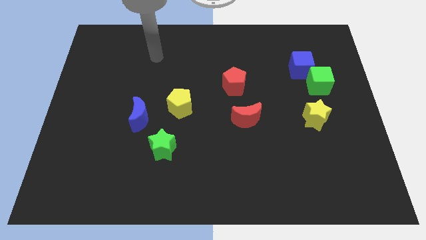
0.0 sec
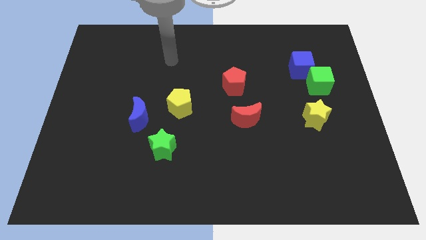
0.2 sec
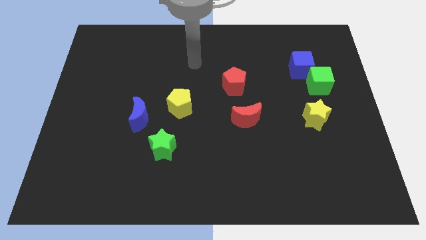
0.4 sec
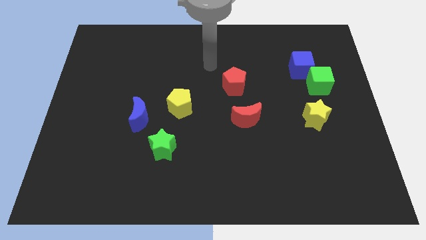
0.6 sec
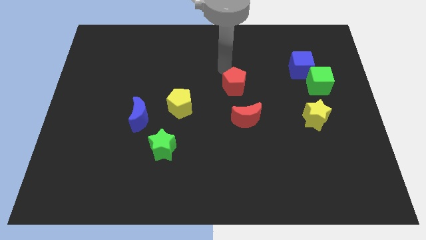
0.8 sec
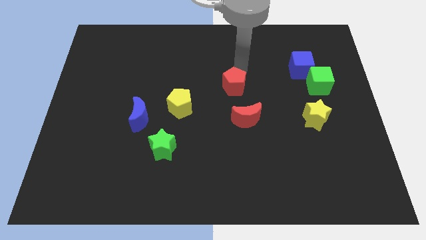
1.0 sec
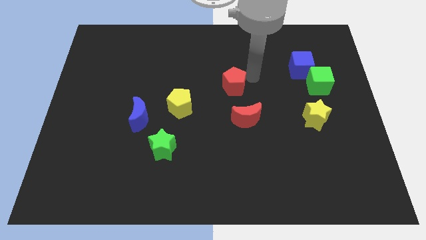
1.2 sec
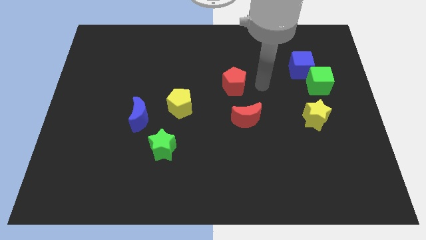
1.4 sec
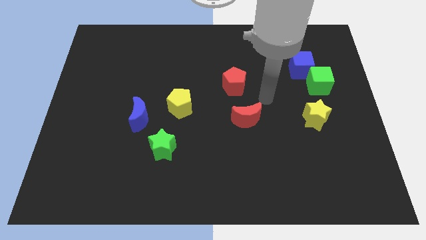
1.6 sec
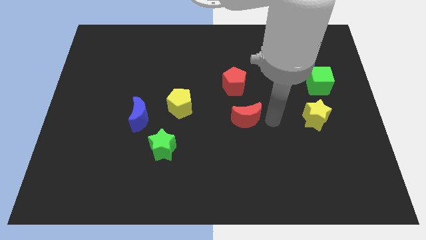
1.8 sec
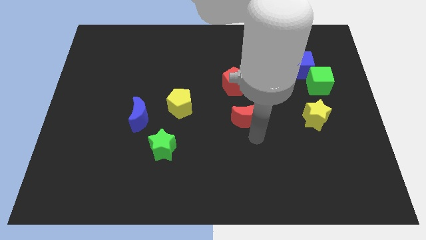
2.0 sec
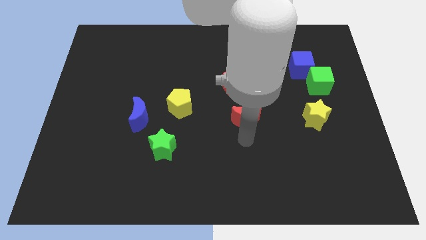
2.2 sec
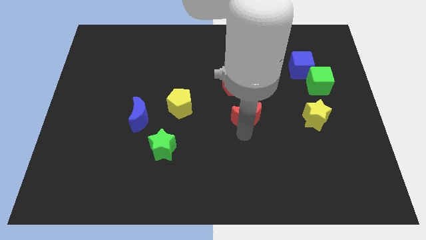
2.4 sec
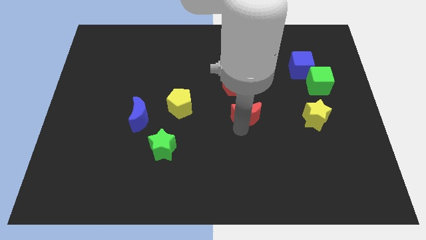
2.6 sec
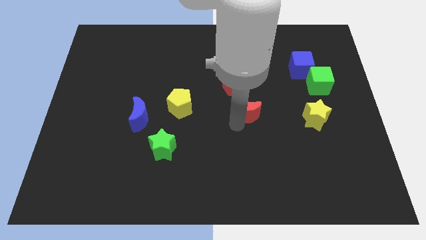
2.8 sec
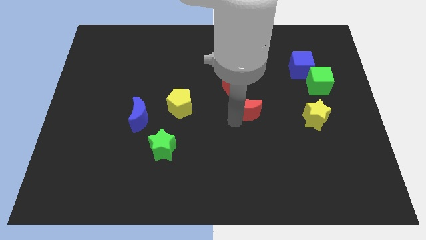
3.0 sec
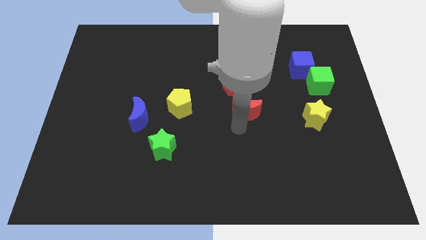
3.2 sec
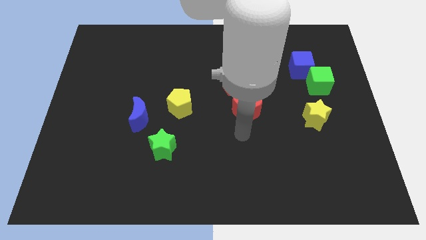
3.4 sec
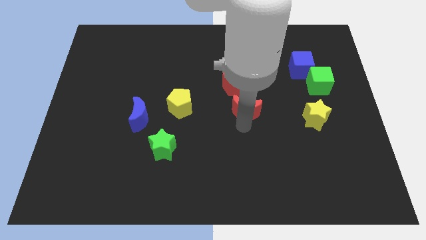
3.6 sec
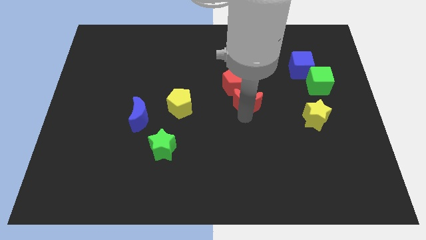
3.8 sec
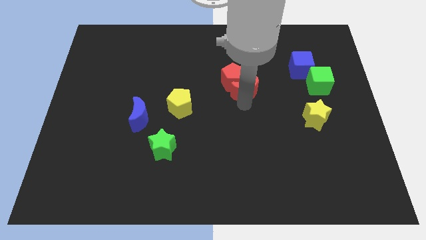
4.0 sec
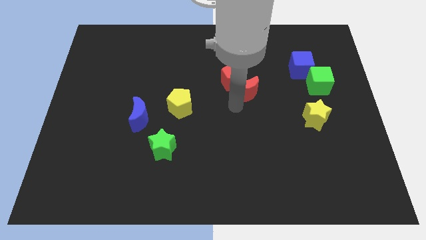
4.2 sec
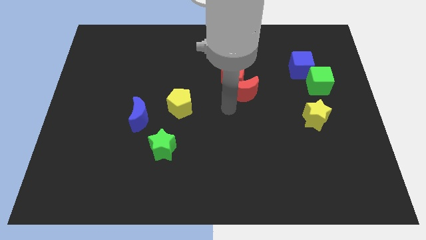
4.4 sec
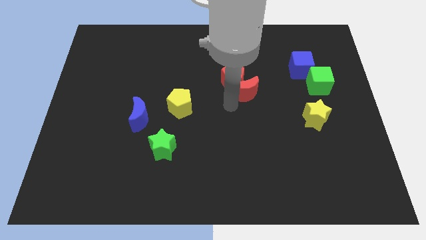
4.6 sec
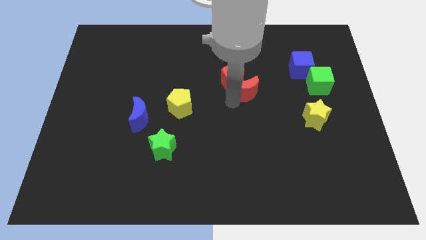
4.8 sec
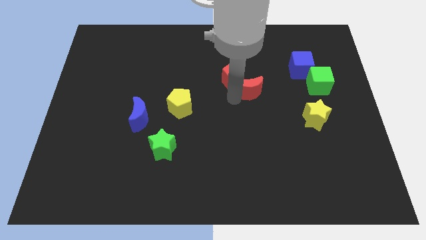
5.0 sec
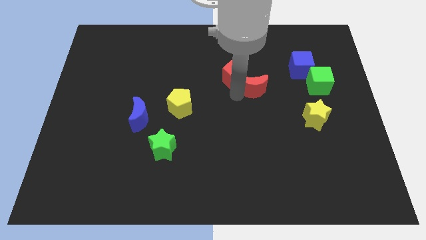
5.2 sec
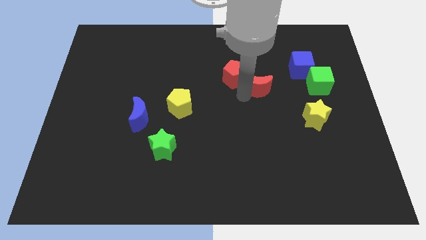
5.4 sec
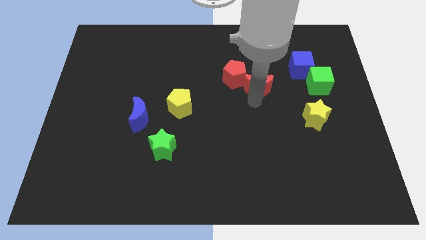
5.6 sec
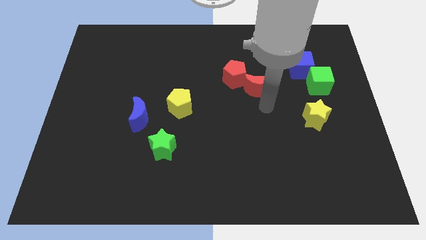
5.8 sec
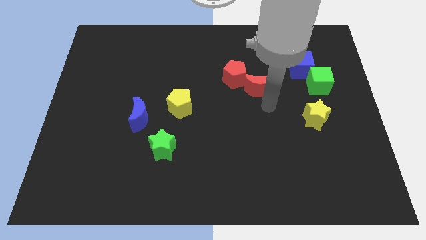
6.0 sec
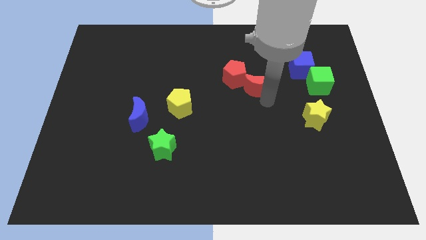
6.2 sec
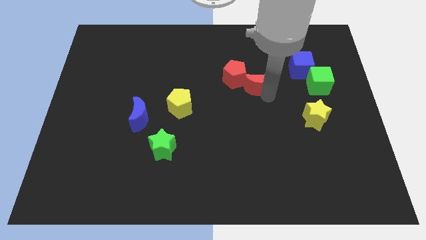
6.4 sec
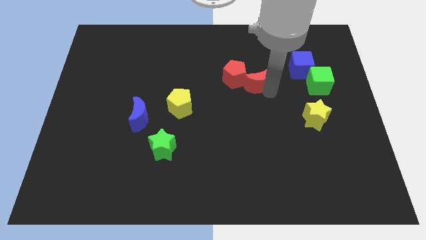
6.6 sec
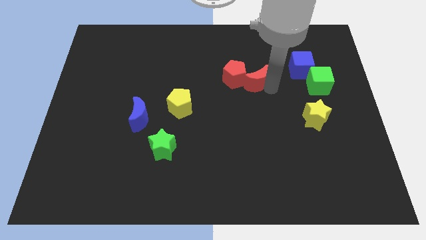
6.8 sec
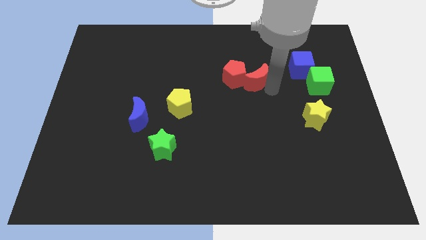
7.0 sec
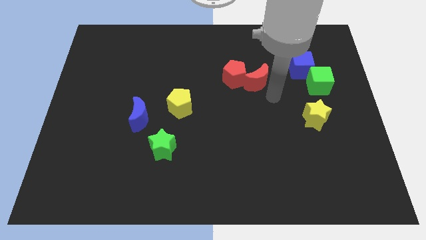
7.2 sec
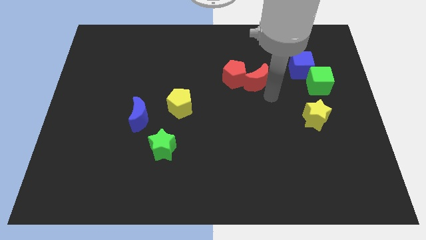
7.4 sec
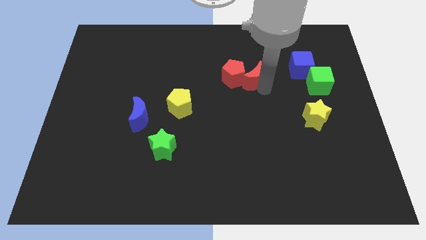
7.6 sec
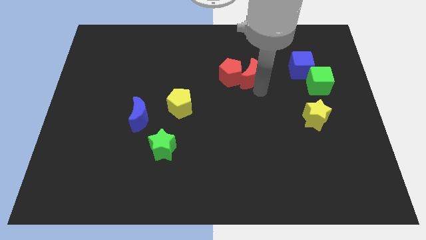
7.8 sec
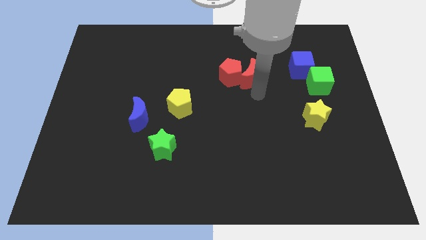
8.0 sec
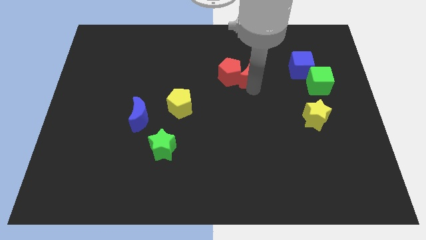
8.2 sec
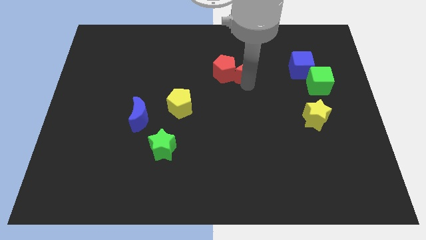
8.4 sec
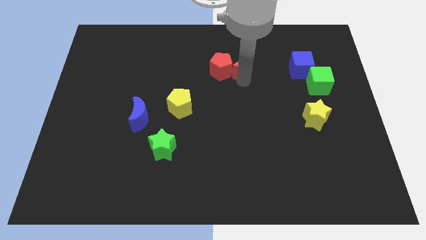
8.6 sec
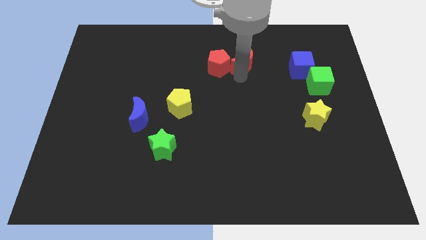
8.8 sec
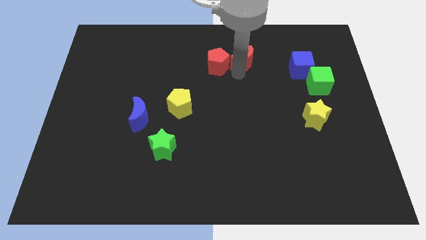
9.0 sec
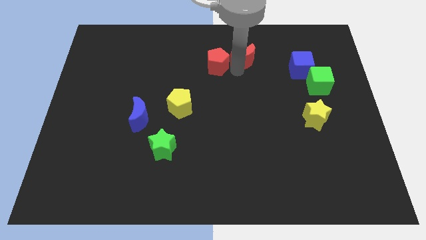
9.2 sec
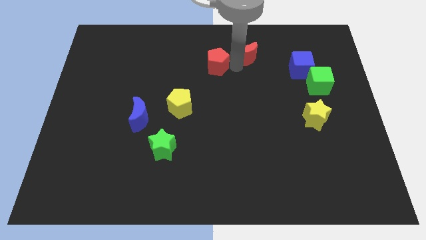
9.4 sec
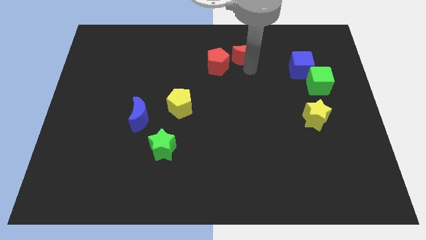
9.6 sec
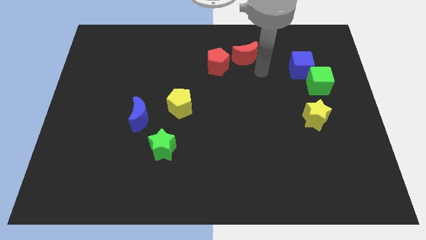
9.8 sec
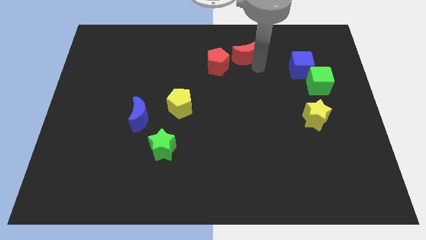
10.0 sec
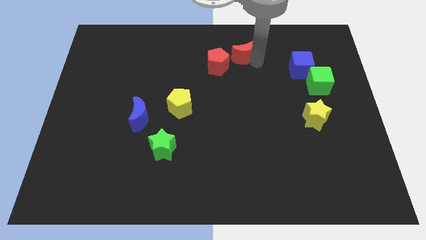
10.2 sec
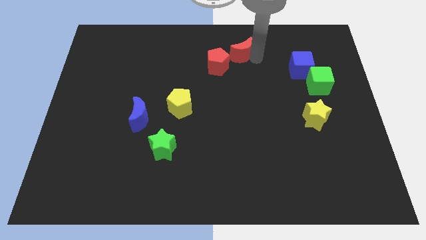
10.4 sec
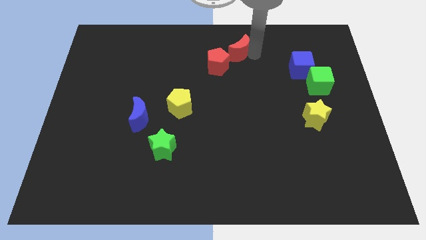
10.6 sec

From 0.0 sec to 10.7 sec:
slide the red moon to the top side
